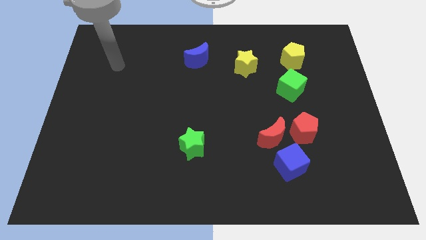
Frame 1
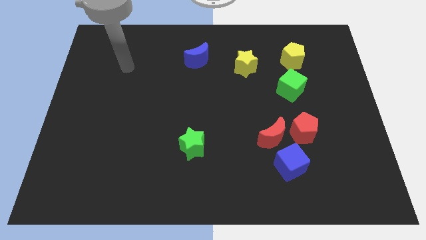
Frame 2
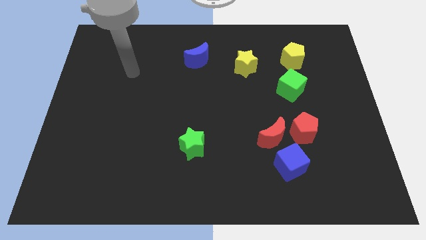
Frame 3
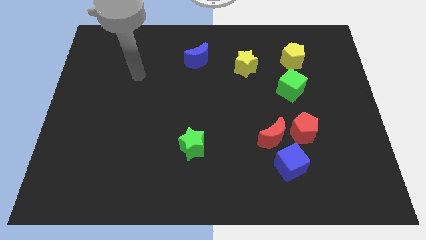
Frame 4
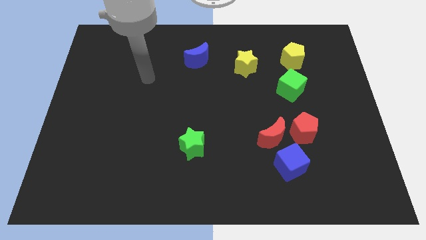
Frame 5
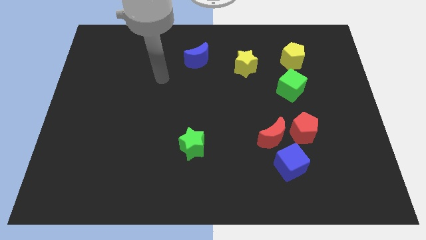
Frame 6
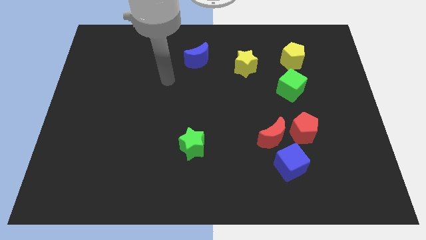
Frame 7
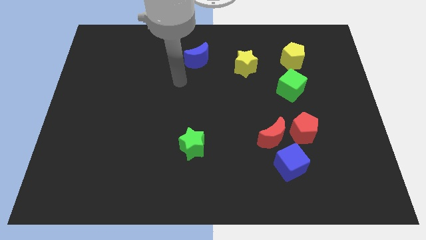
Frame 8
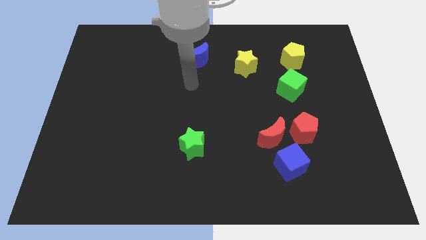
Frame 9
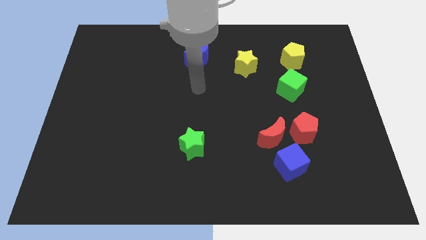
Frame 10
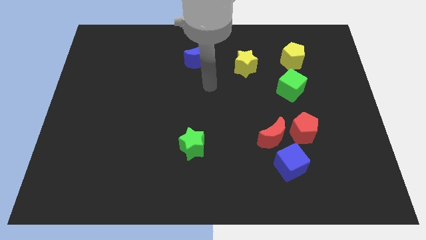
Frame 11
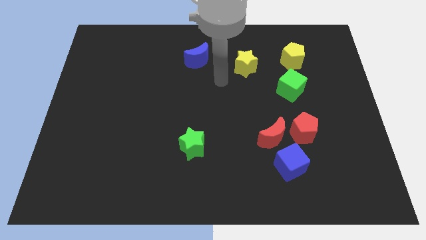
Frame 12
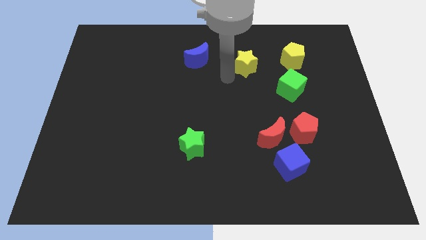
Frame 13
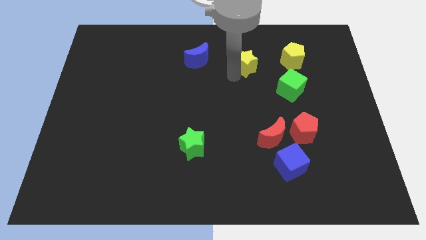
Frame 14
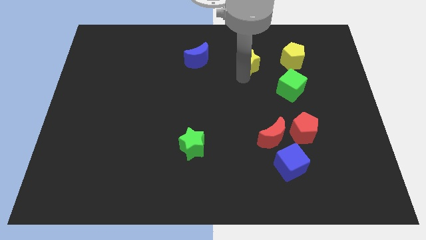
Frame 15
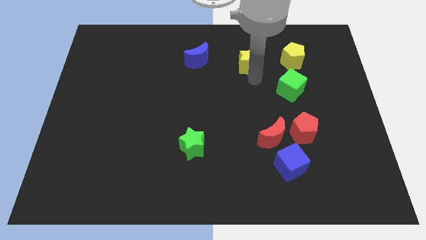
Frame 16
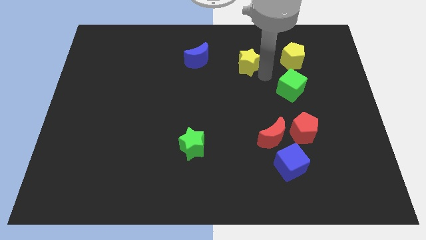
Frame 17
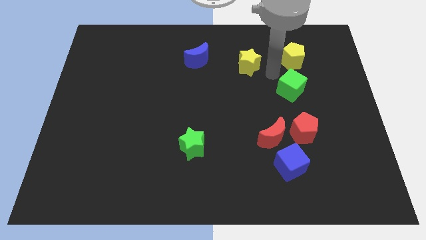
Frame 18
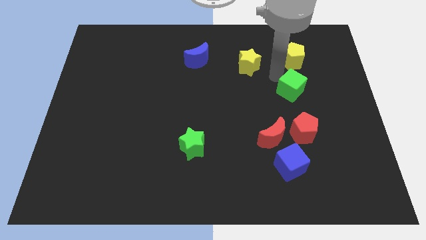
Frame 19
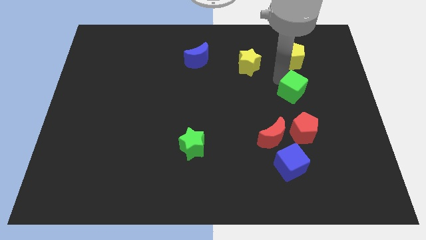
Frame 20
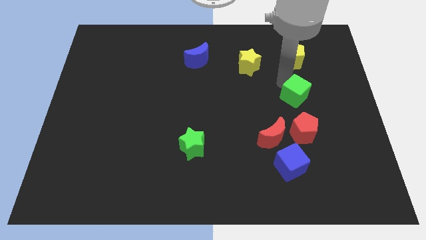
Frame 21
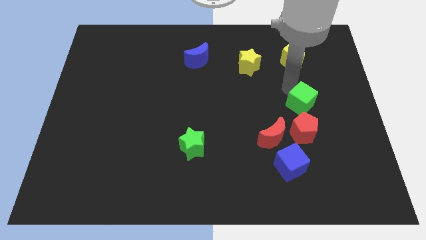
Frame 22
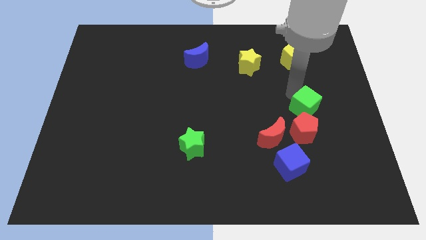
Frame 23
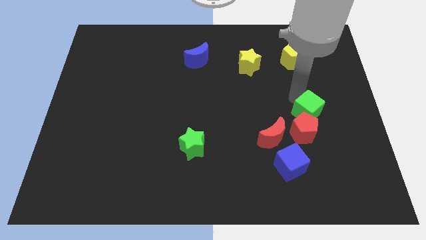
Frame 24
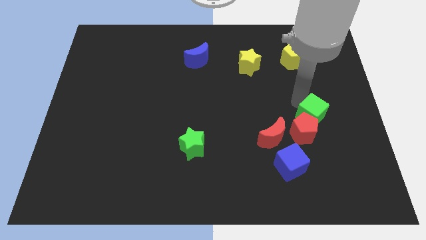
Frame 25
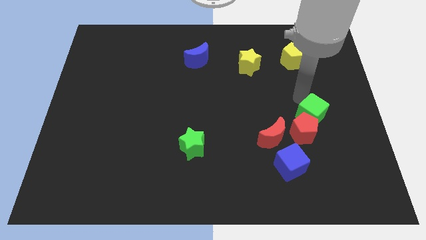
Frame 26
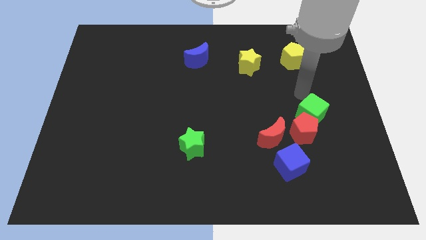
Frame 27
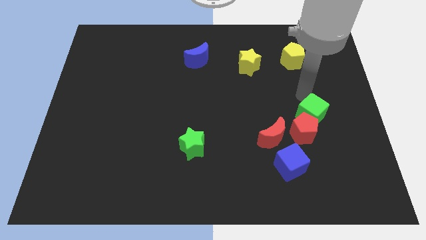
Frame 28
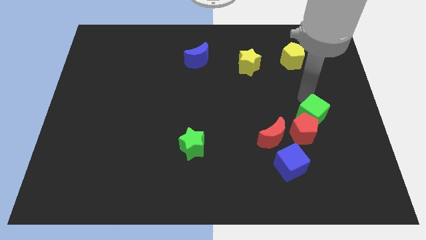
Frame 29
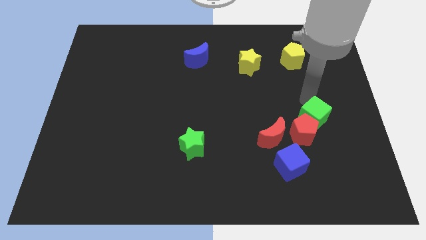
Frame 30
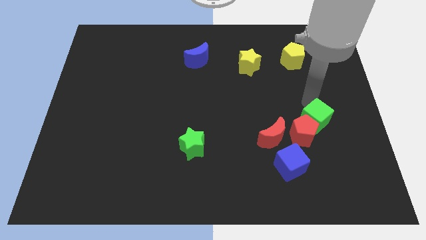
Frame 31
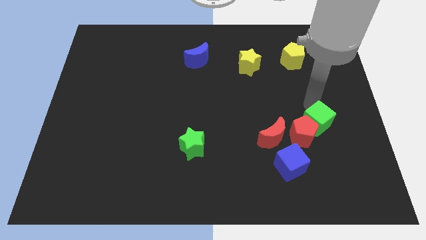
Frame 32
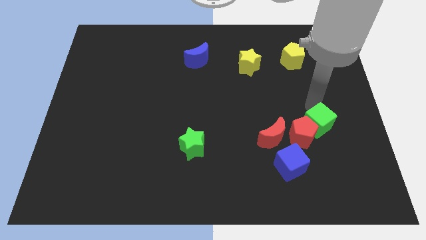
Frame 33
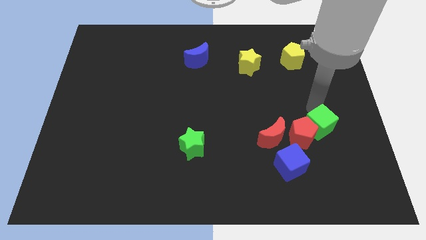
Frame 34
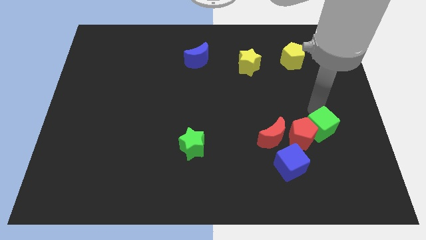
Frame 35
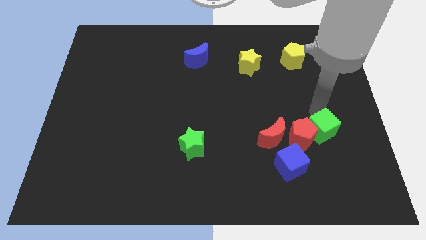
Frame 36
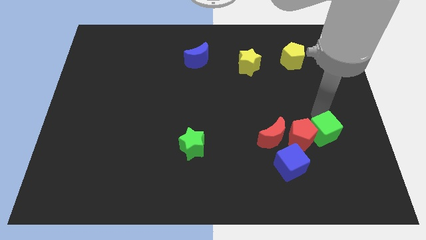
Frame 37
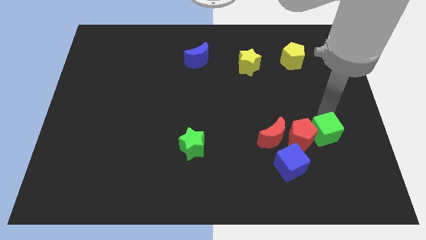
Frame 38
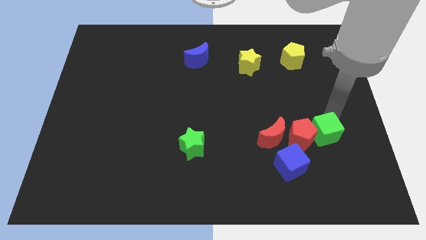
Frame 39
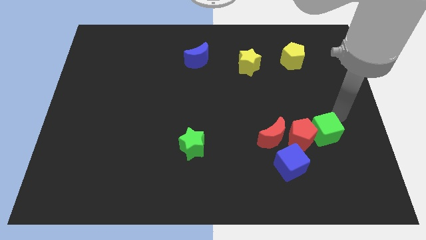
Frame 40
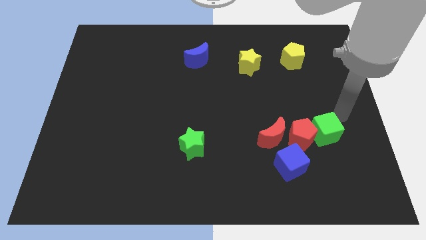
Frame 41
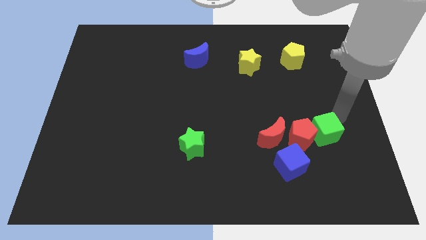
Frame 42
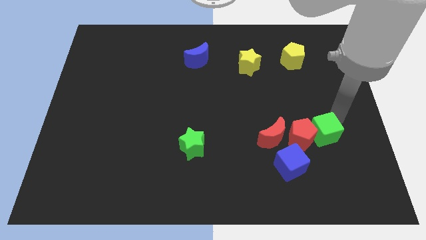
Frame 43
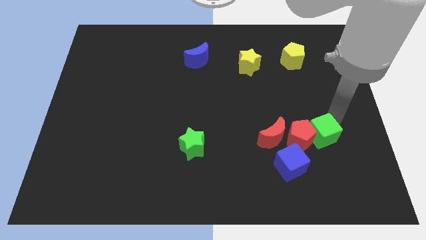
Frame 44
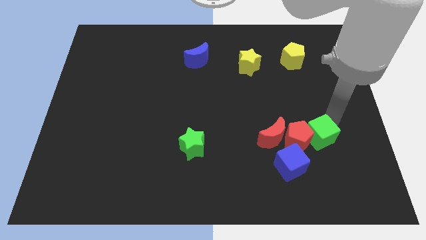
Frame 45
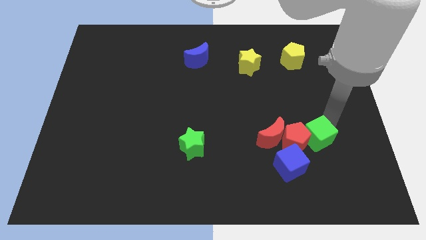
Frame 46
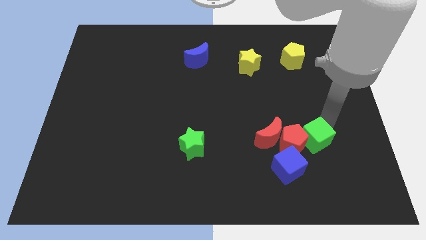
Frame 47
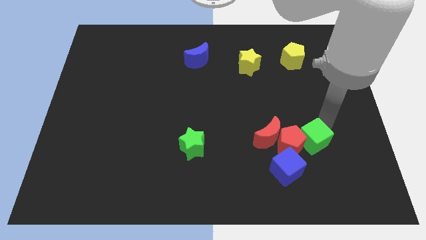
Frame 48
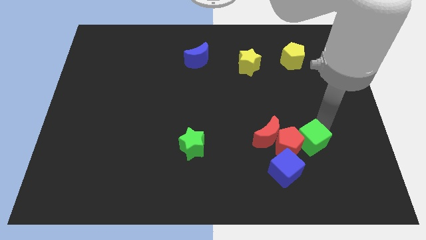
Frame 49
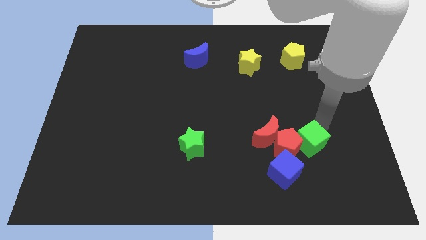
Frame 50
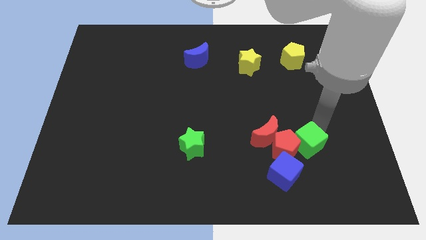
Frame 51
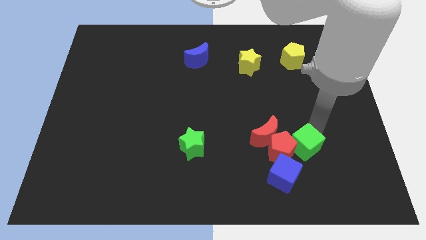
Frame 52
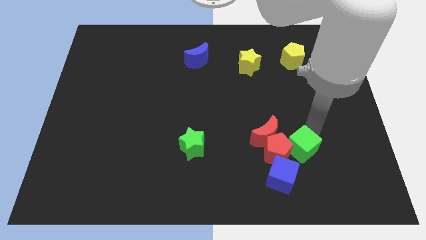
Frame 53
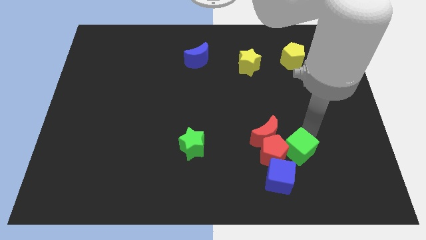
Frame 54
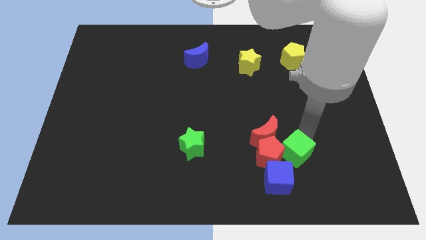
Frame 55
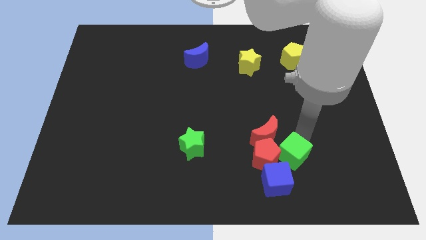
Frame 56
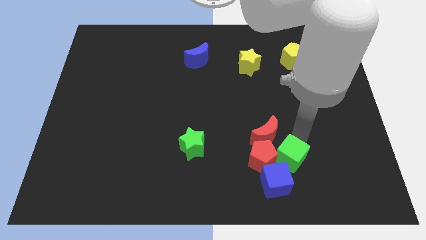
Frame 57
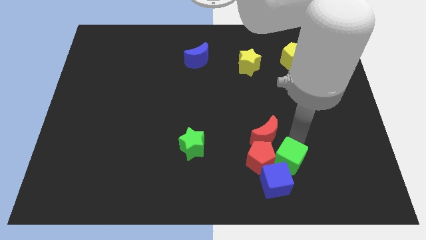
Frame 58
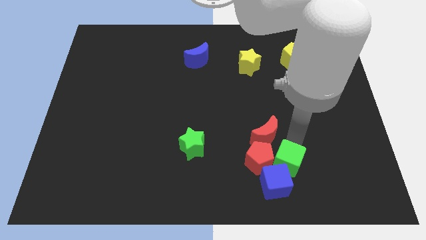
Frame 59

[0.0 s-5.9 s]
move the green cube towards the blue cube

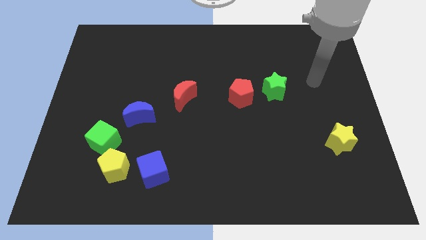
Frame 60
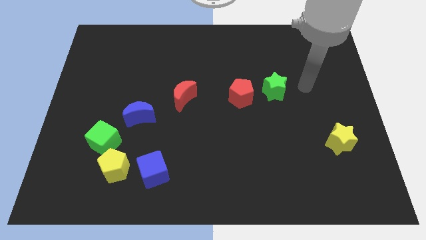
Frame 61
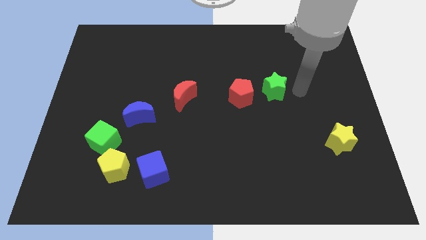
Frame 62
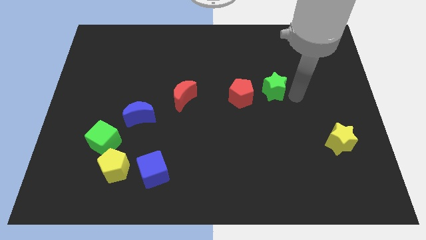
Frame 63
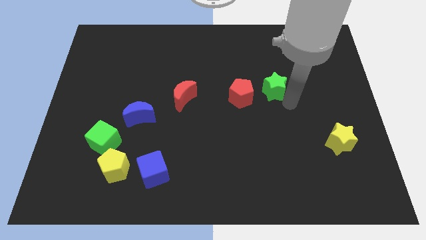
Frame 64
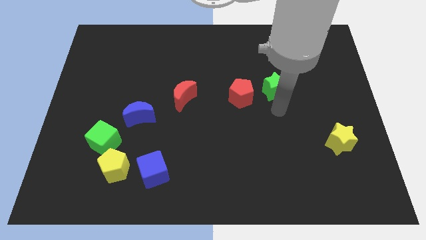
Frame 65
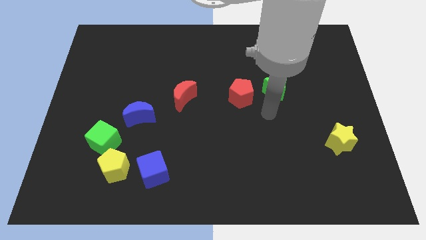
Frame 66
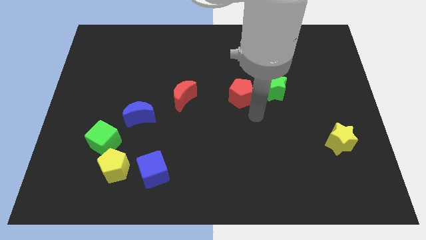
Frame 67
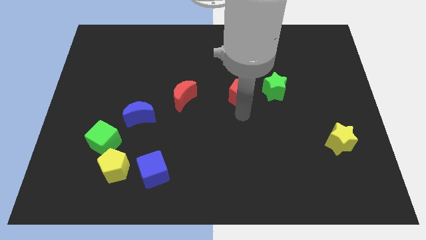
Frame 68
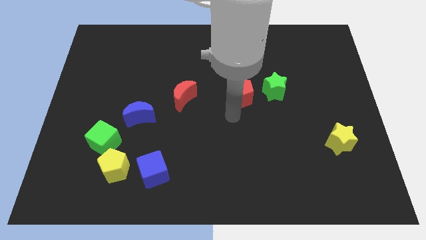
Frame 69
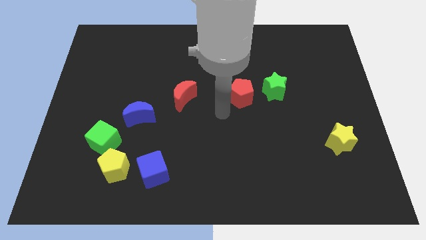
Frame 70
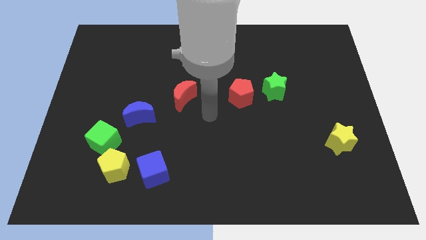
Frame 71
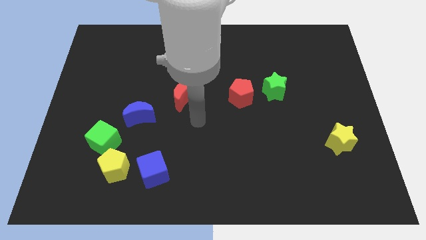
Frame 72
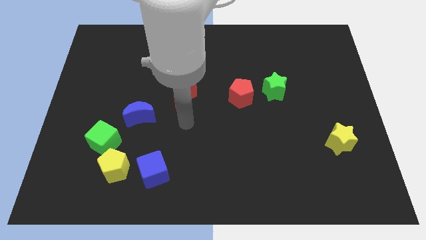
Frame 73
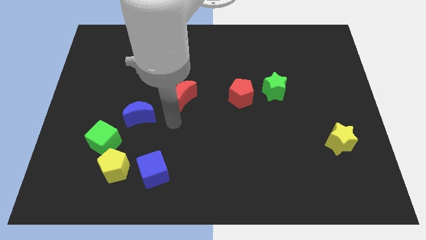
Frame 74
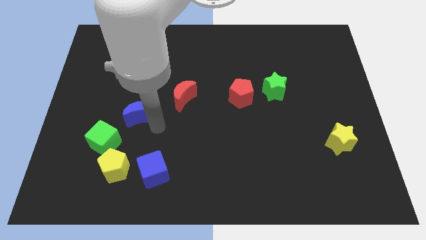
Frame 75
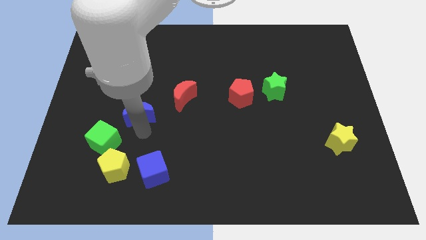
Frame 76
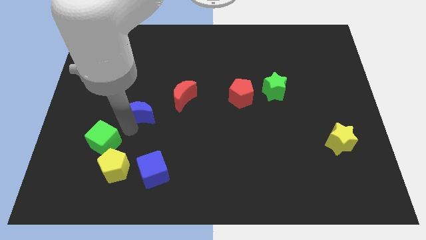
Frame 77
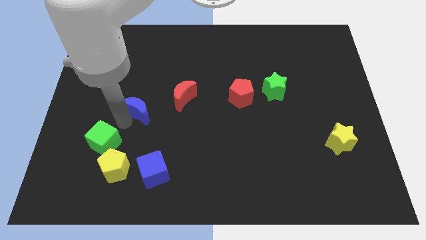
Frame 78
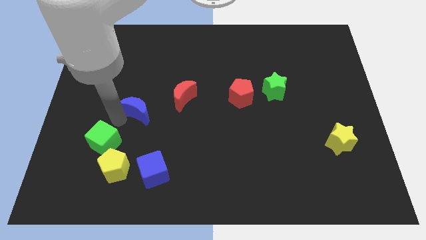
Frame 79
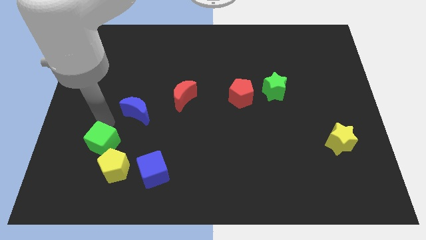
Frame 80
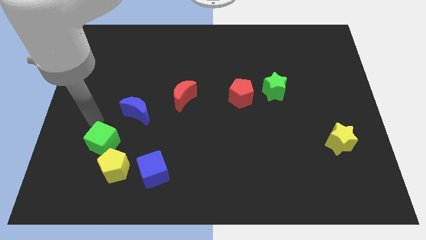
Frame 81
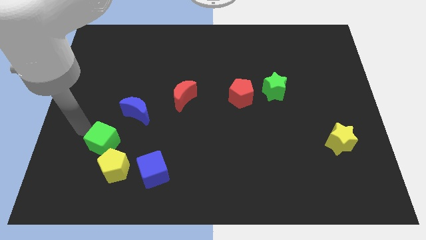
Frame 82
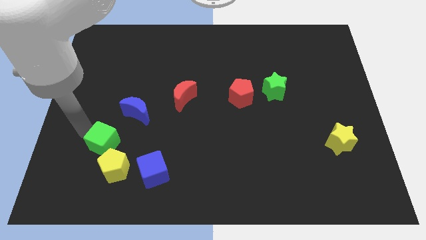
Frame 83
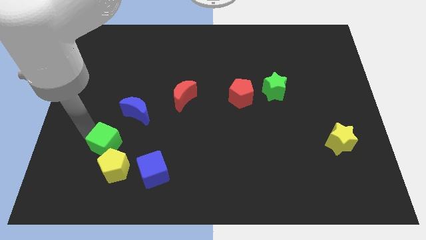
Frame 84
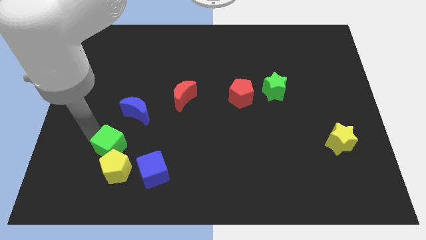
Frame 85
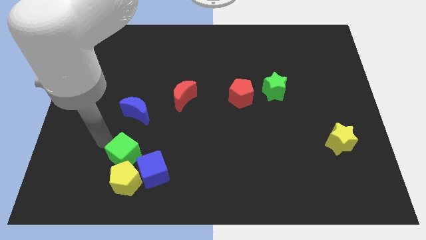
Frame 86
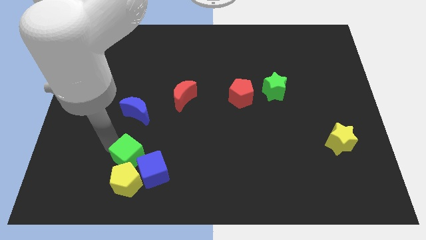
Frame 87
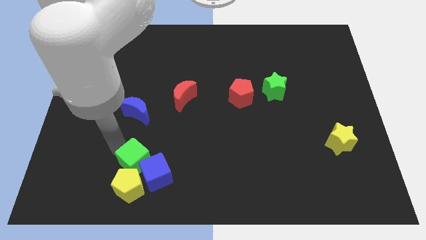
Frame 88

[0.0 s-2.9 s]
slide the green cube close to the blue cube
